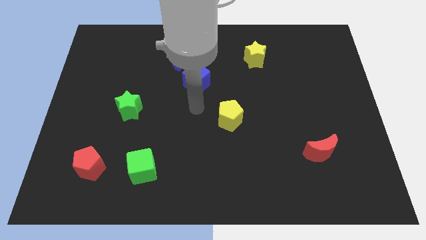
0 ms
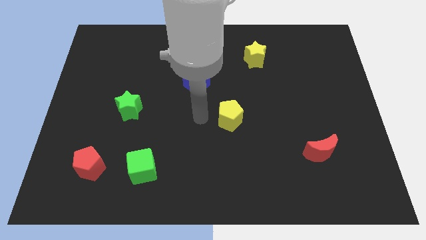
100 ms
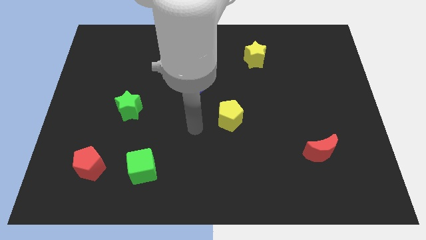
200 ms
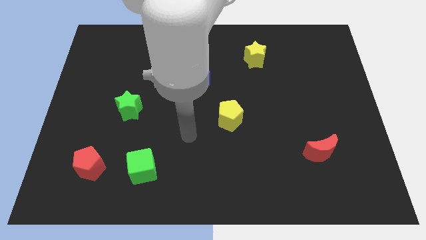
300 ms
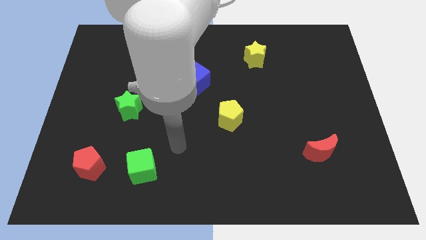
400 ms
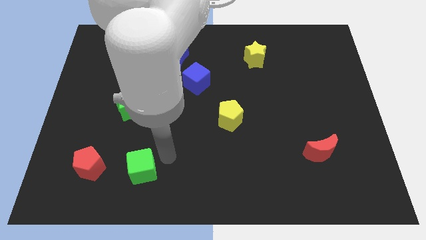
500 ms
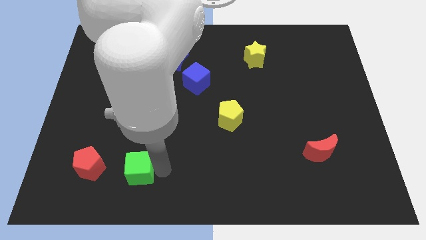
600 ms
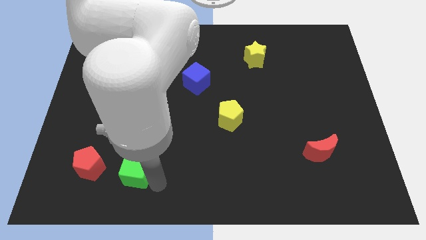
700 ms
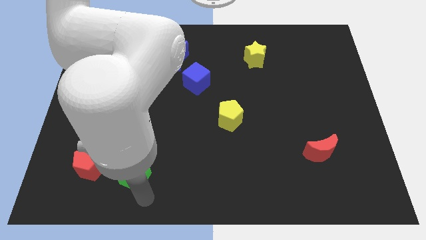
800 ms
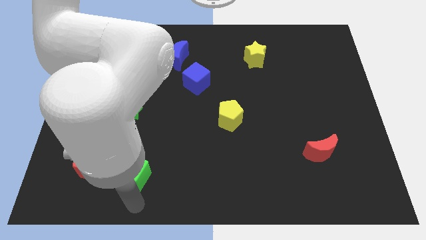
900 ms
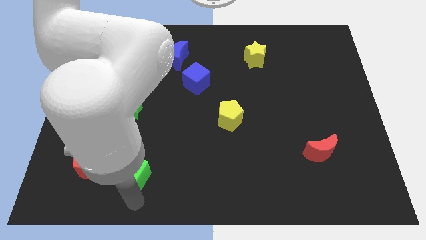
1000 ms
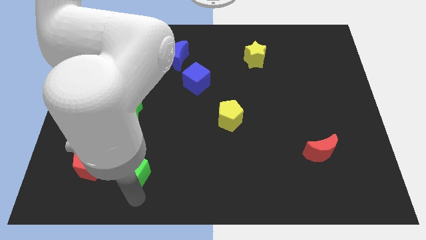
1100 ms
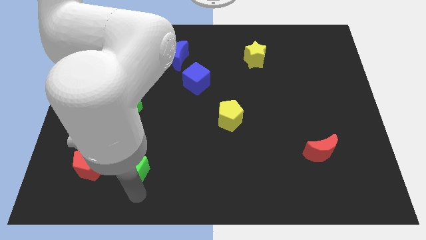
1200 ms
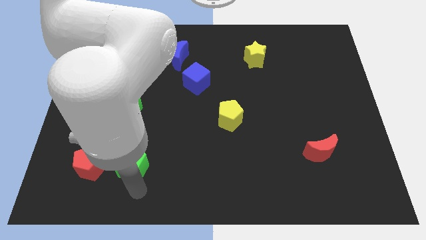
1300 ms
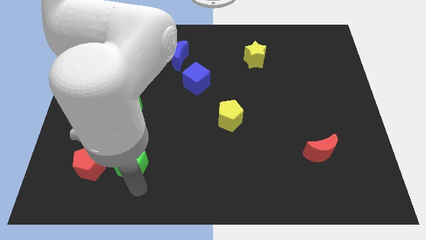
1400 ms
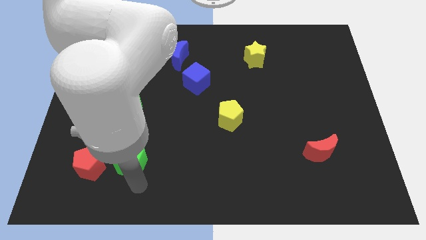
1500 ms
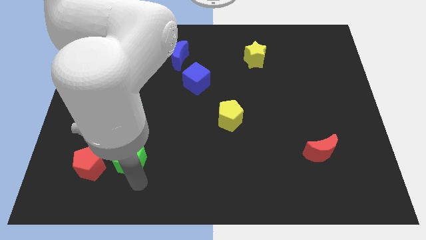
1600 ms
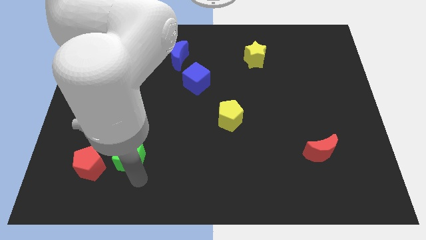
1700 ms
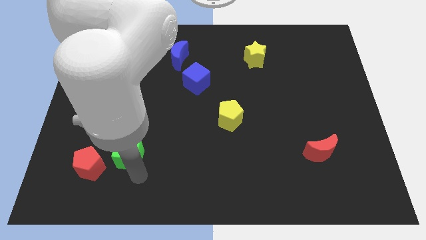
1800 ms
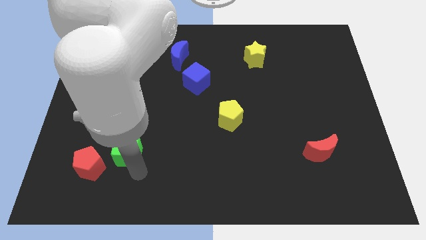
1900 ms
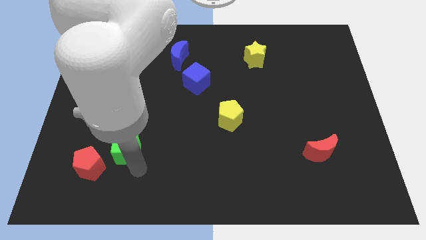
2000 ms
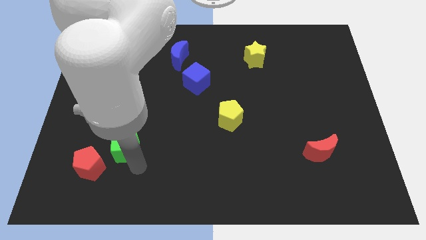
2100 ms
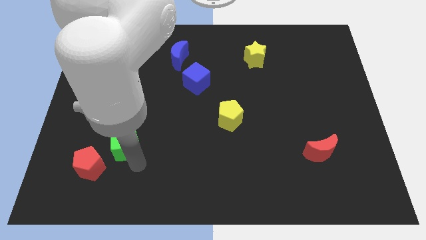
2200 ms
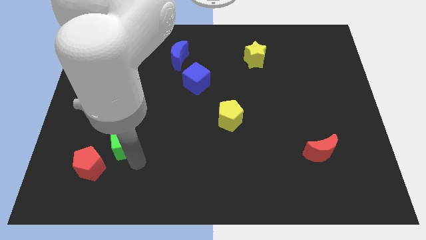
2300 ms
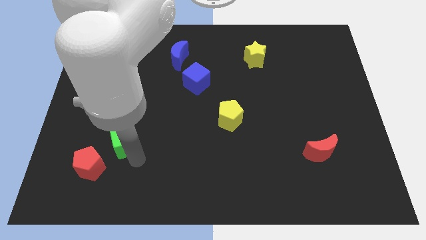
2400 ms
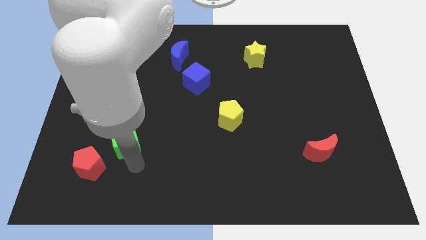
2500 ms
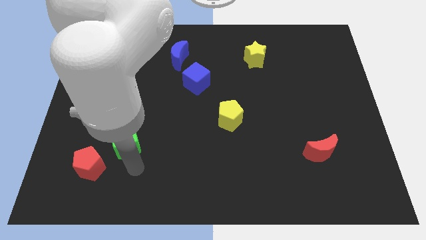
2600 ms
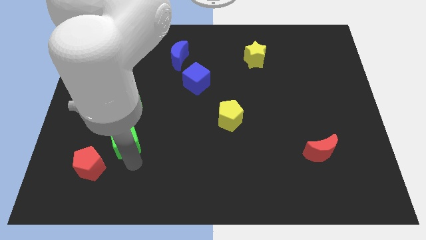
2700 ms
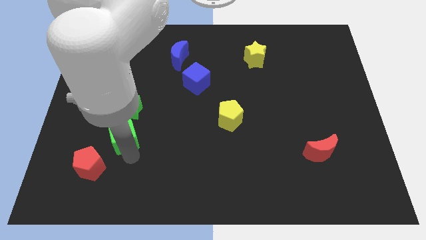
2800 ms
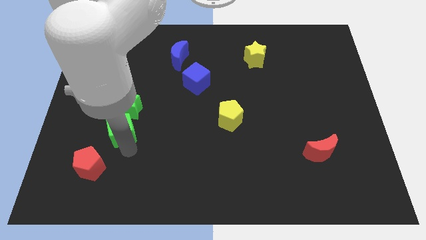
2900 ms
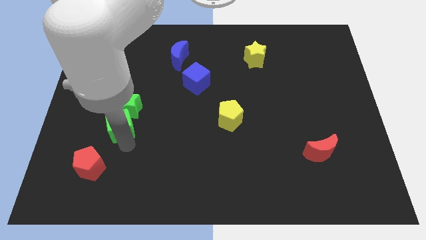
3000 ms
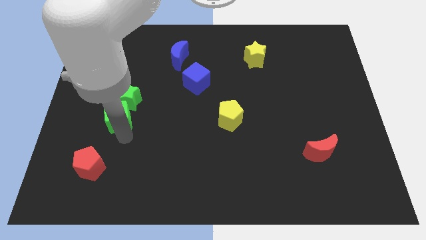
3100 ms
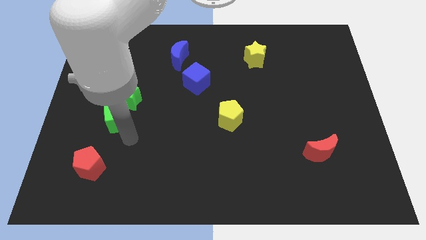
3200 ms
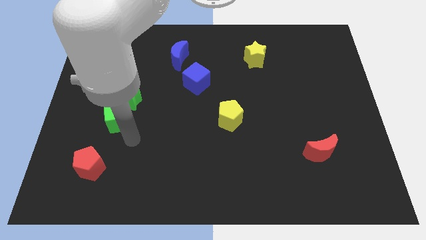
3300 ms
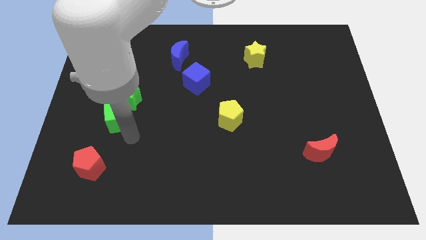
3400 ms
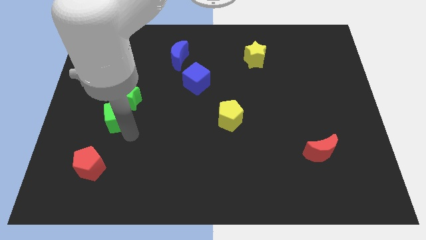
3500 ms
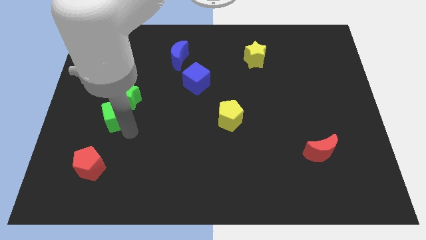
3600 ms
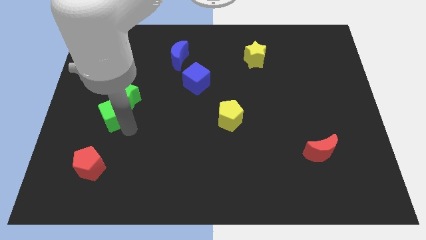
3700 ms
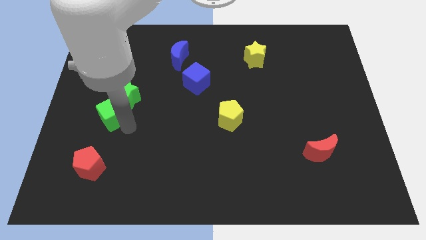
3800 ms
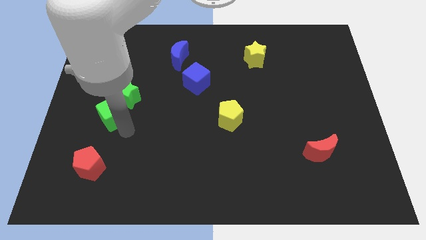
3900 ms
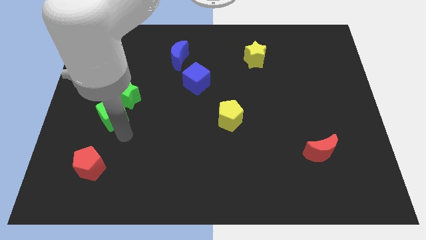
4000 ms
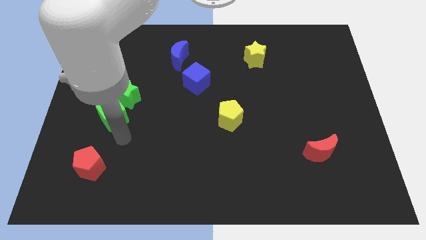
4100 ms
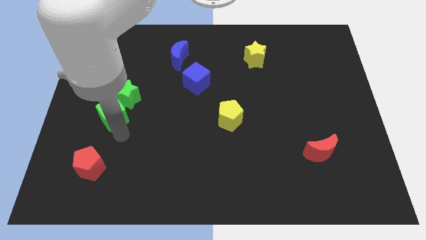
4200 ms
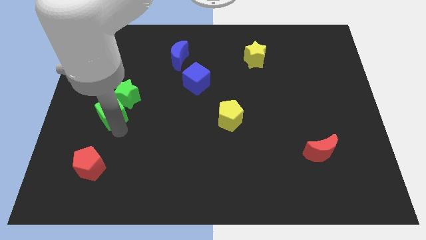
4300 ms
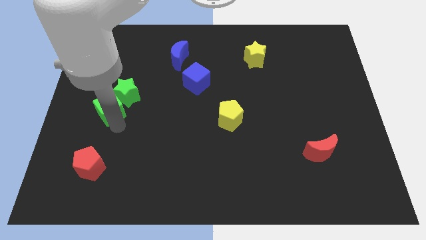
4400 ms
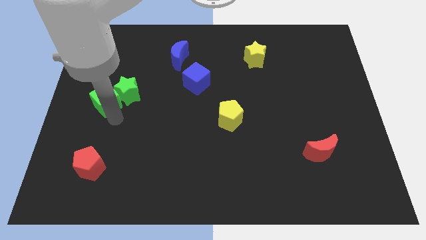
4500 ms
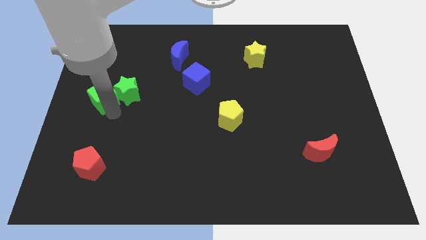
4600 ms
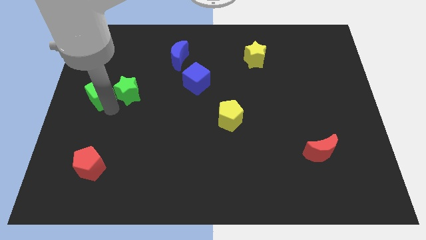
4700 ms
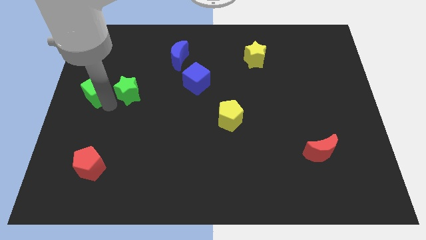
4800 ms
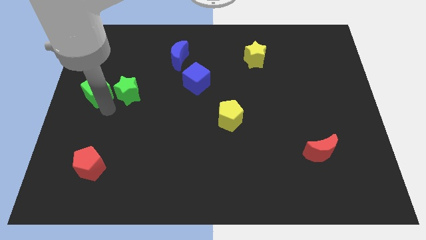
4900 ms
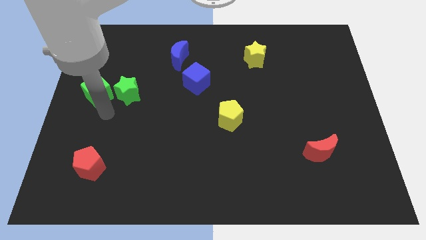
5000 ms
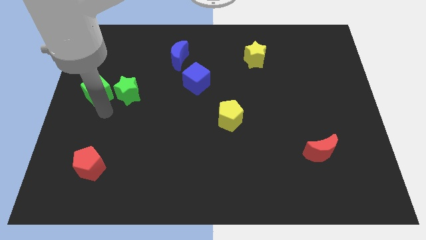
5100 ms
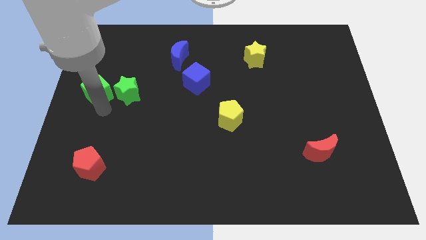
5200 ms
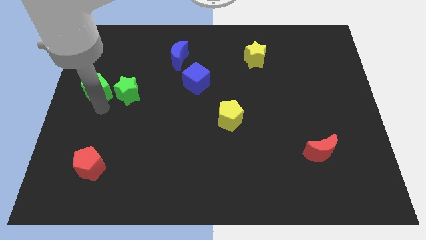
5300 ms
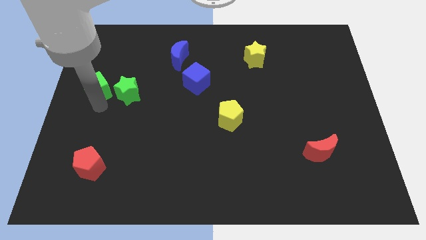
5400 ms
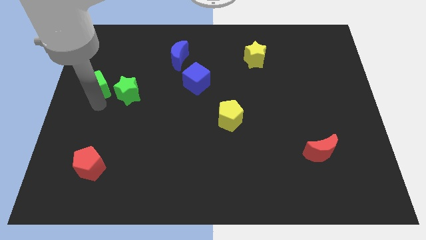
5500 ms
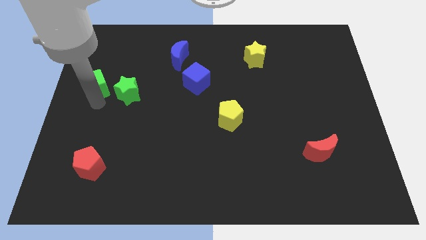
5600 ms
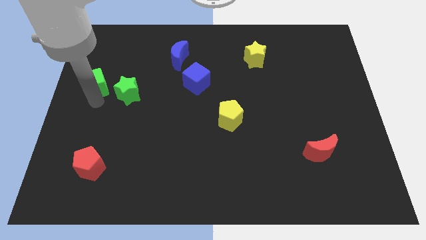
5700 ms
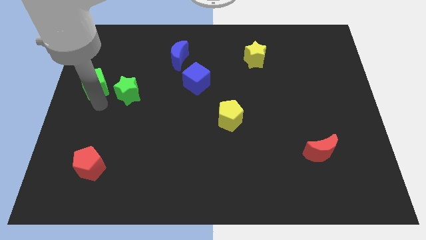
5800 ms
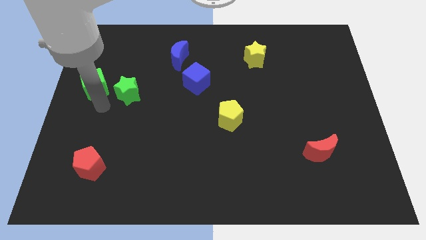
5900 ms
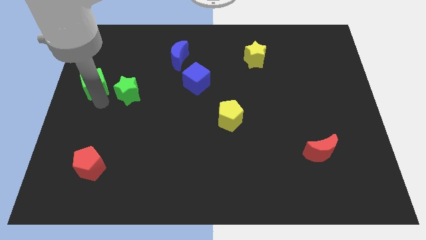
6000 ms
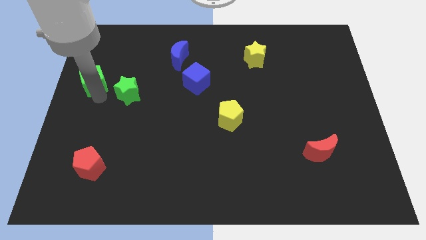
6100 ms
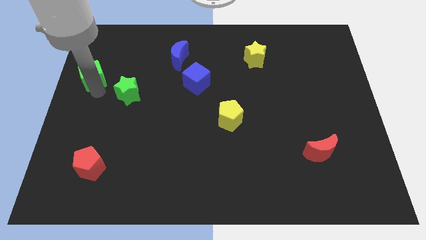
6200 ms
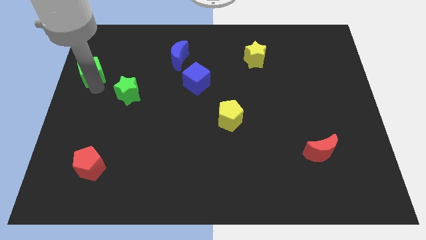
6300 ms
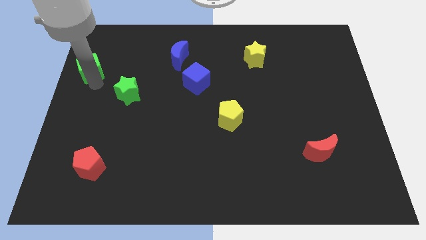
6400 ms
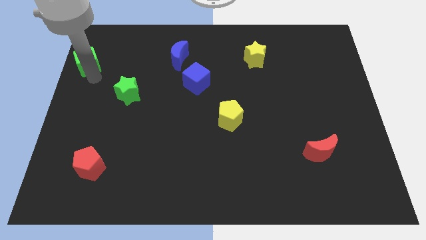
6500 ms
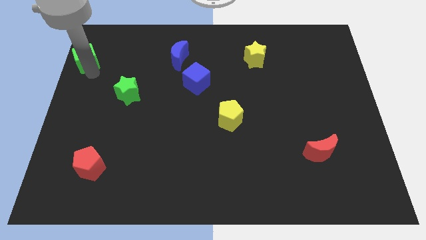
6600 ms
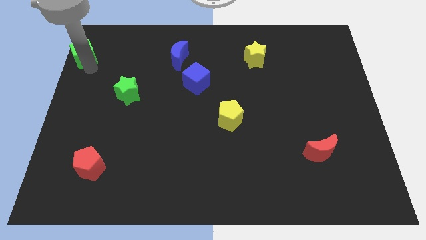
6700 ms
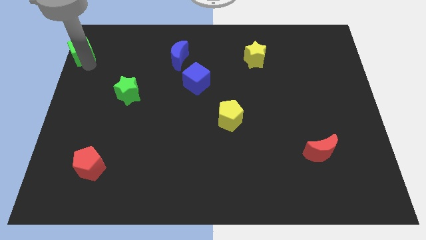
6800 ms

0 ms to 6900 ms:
move the green cube to the top left corner

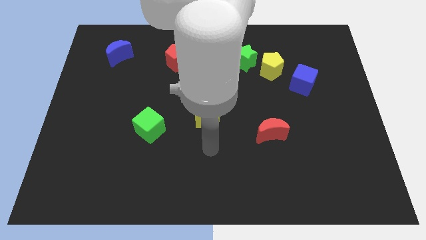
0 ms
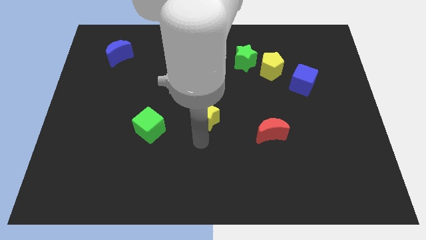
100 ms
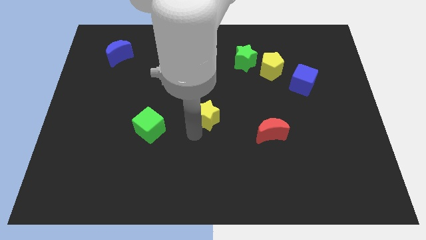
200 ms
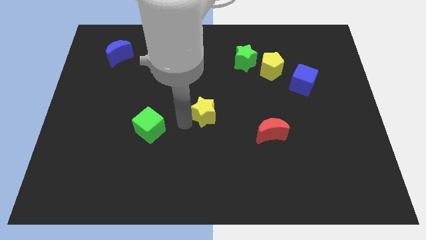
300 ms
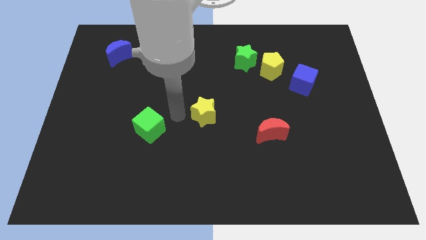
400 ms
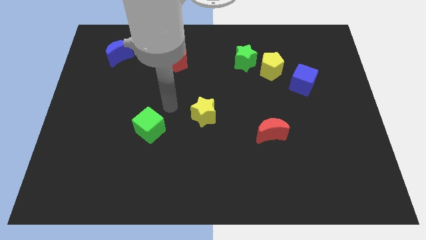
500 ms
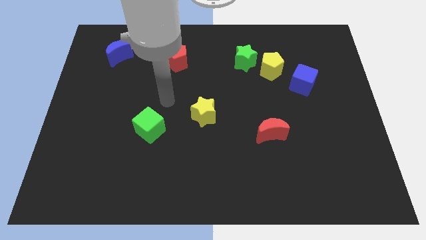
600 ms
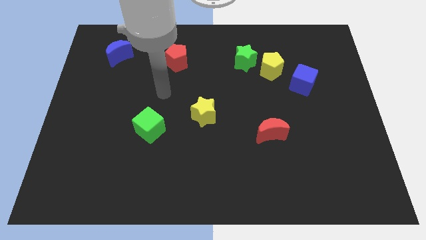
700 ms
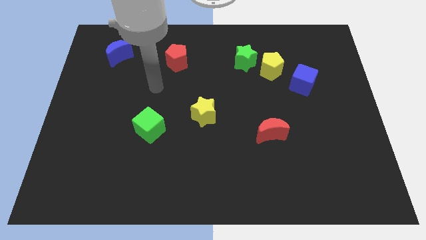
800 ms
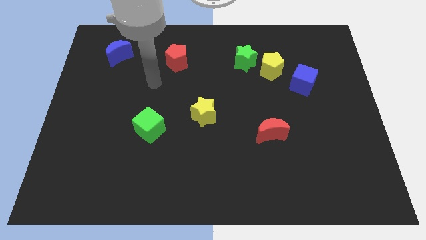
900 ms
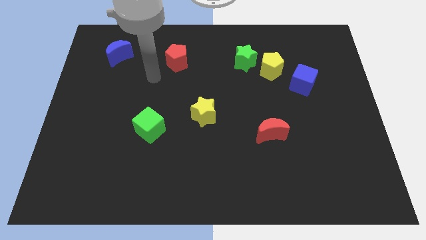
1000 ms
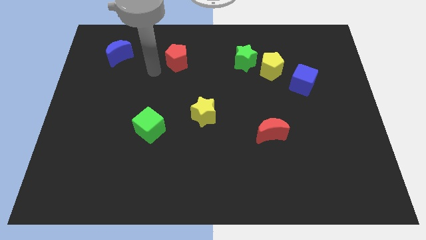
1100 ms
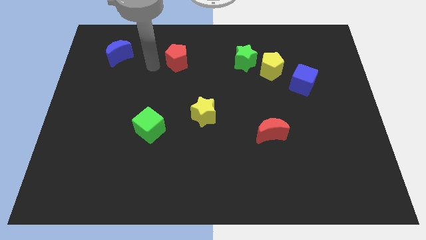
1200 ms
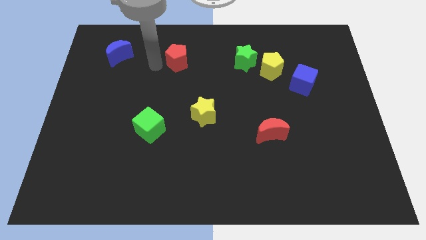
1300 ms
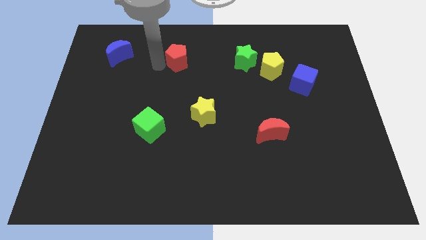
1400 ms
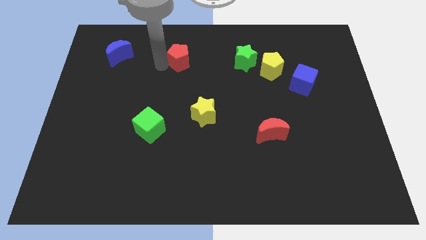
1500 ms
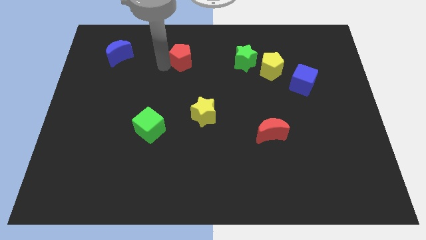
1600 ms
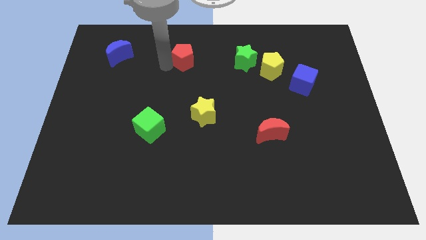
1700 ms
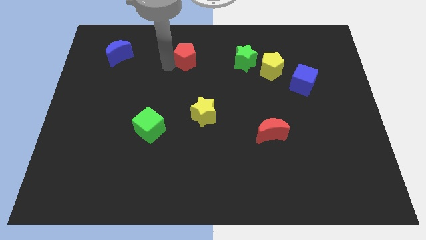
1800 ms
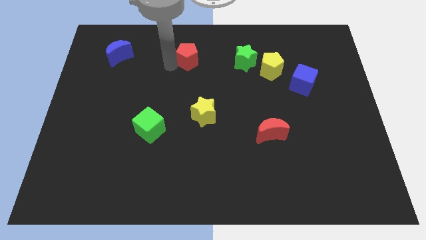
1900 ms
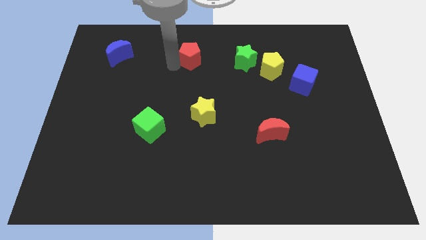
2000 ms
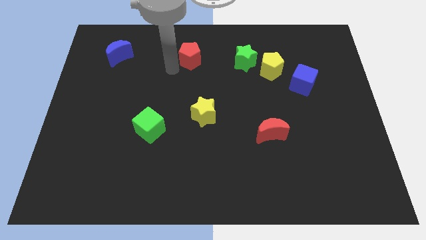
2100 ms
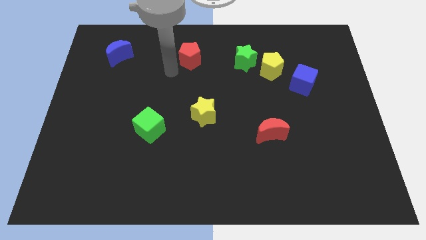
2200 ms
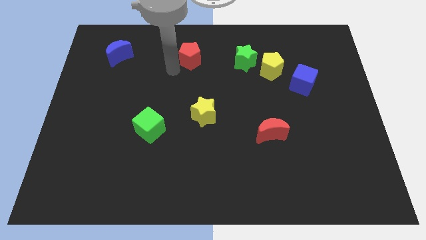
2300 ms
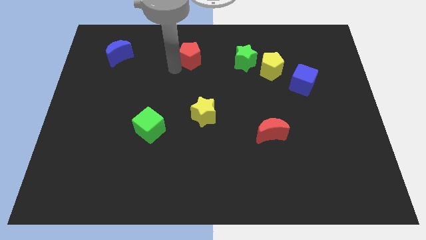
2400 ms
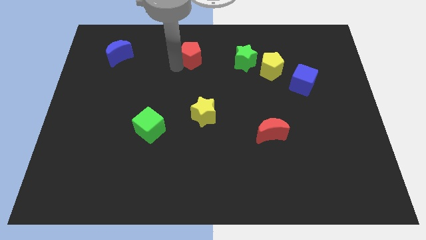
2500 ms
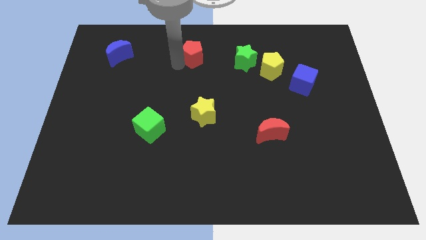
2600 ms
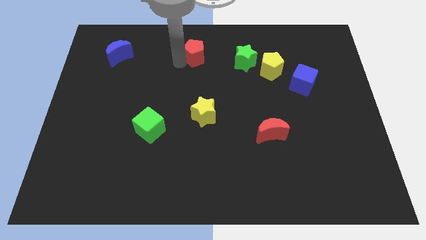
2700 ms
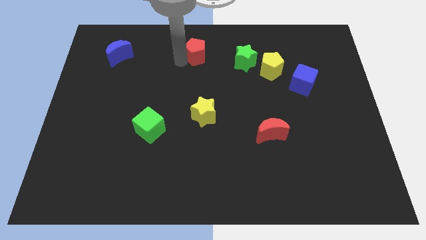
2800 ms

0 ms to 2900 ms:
move the red pentagon to the top side
